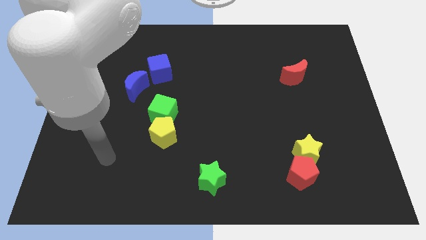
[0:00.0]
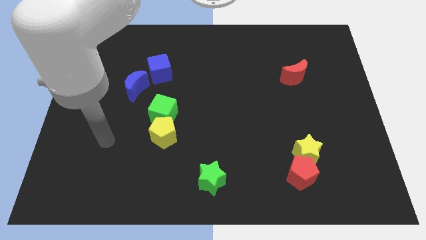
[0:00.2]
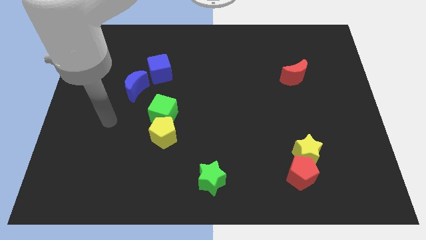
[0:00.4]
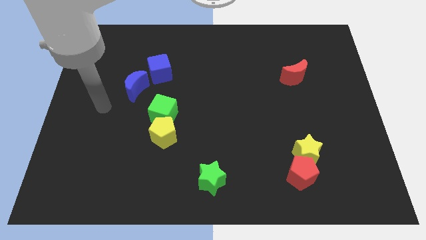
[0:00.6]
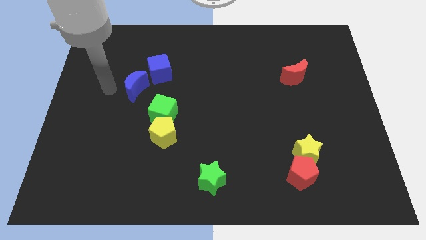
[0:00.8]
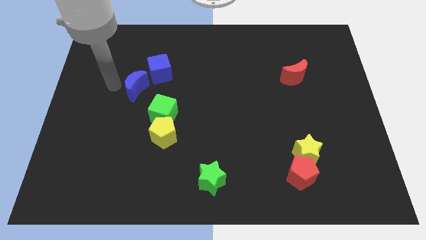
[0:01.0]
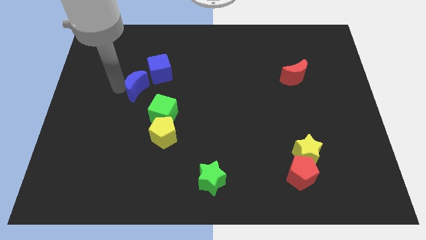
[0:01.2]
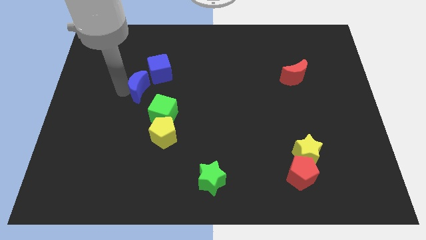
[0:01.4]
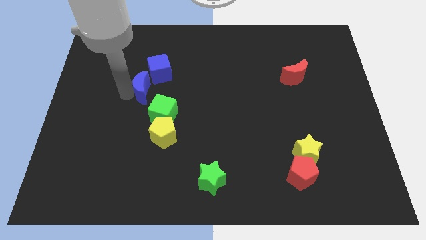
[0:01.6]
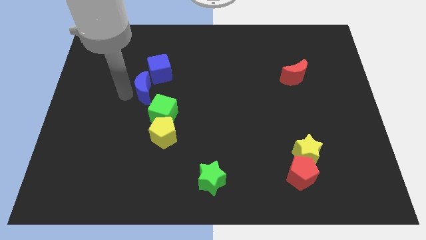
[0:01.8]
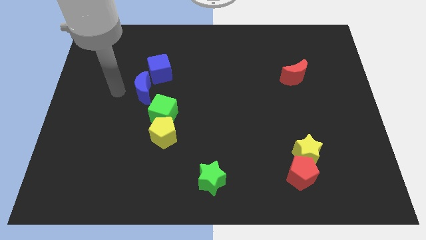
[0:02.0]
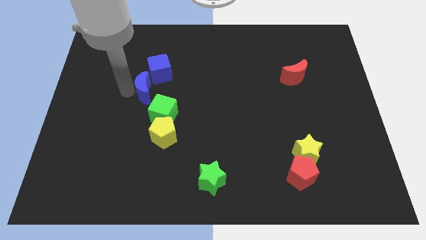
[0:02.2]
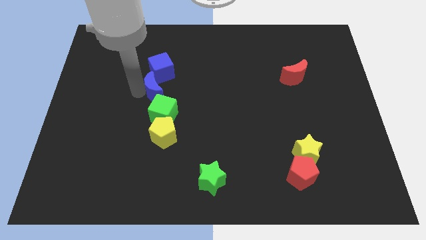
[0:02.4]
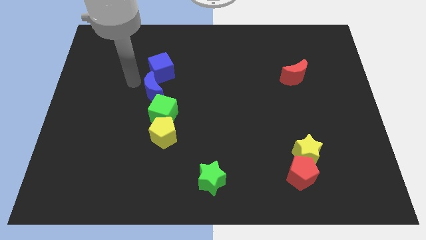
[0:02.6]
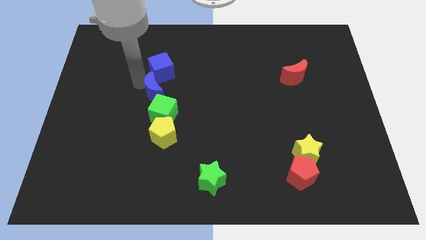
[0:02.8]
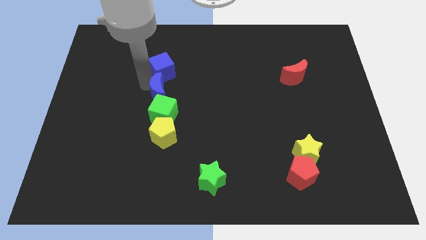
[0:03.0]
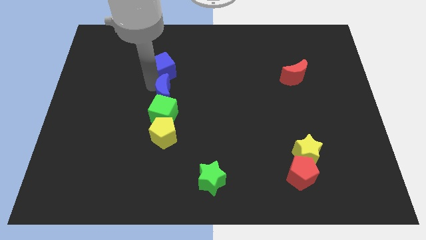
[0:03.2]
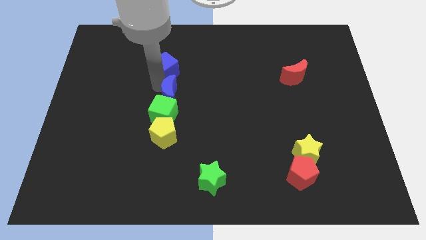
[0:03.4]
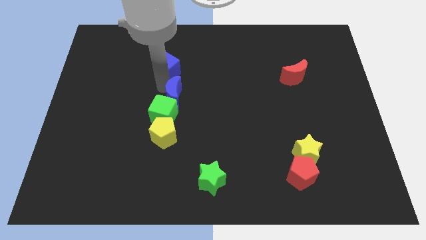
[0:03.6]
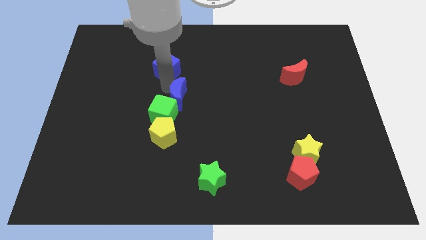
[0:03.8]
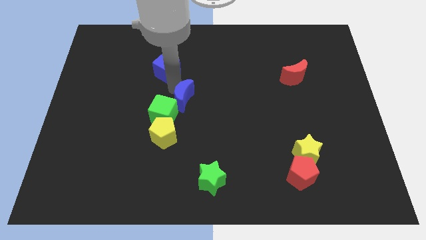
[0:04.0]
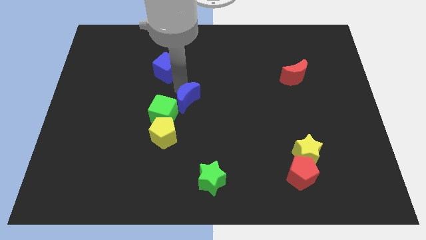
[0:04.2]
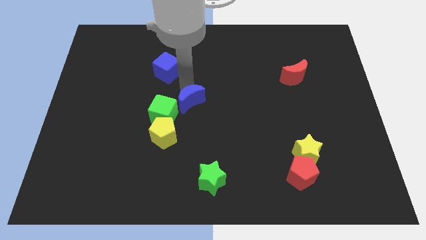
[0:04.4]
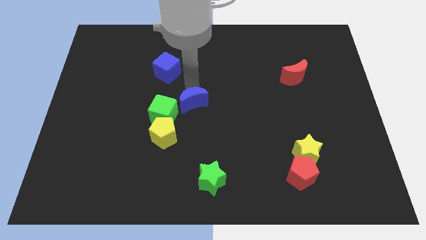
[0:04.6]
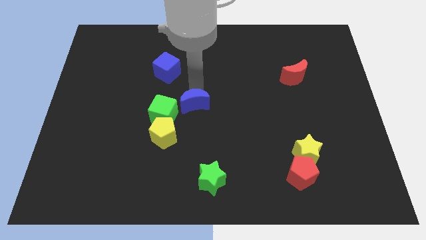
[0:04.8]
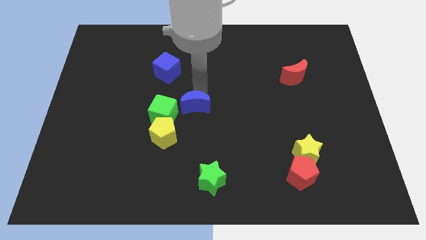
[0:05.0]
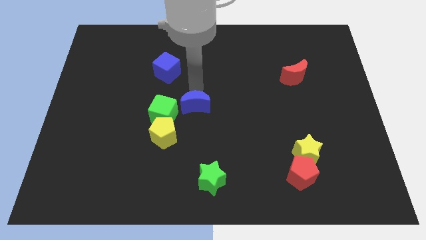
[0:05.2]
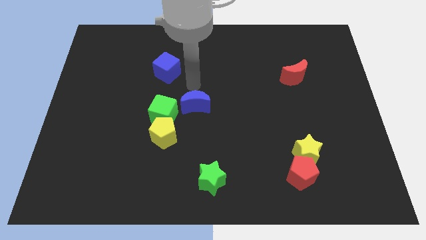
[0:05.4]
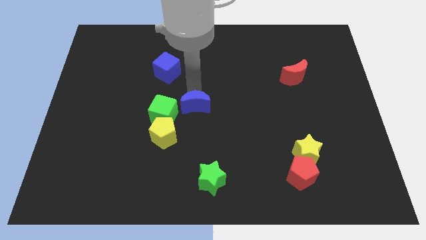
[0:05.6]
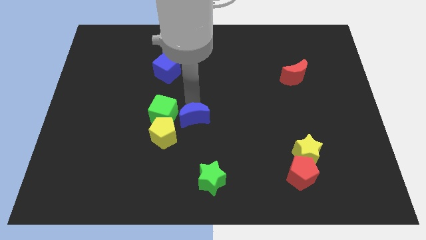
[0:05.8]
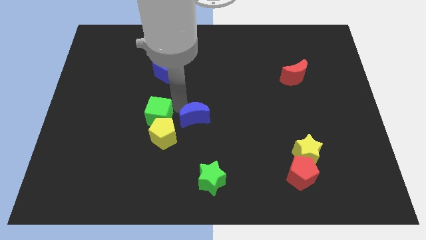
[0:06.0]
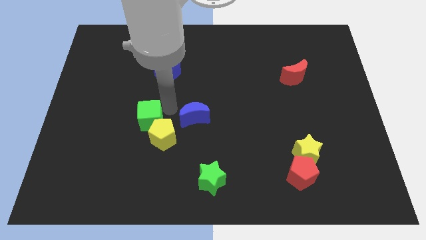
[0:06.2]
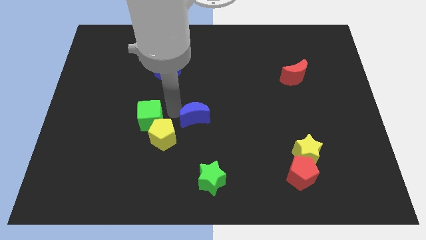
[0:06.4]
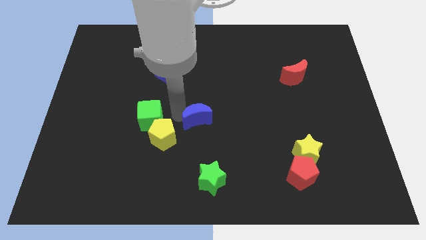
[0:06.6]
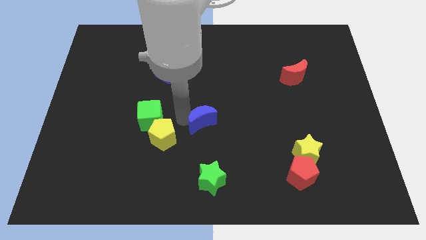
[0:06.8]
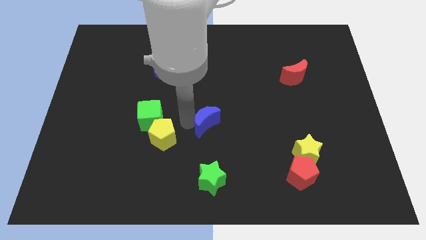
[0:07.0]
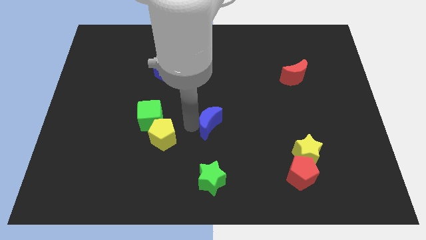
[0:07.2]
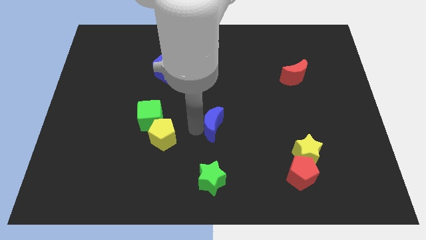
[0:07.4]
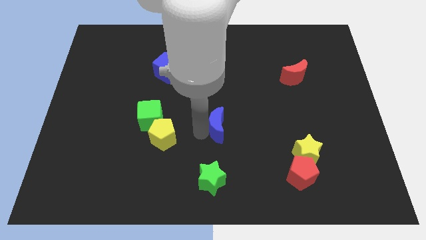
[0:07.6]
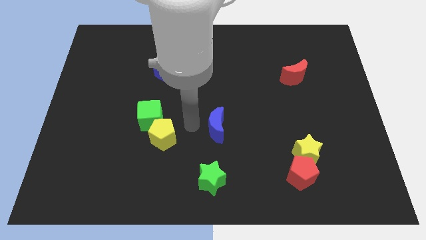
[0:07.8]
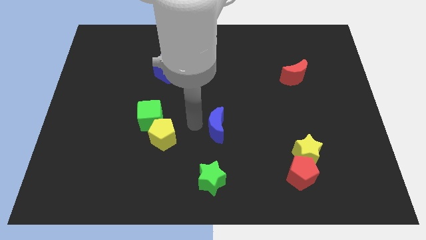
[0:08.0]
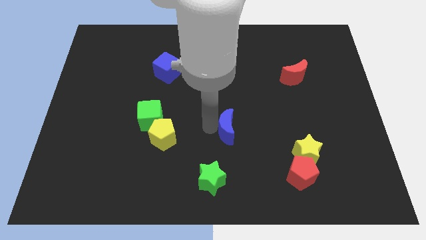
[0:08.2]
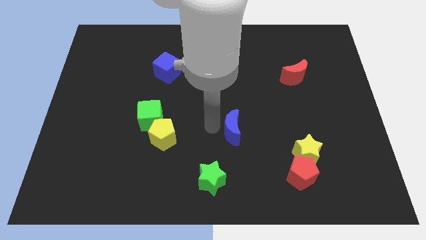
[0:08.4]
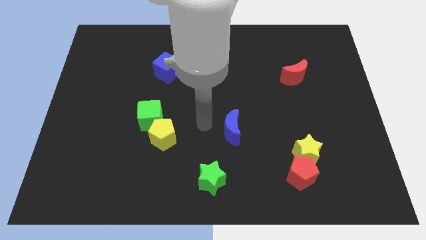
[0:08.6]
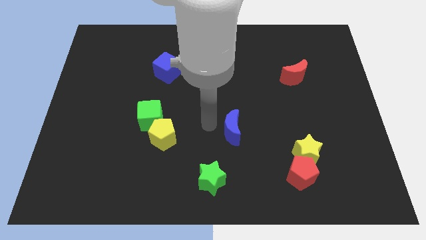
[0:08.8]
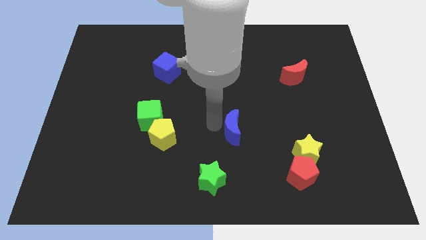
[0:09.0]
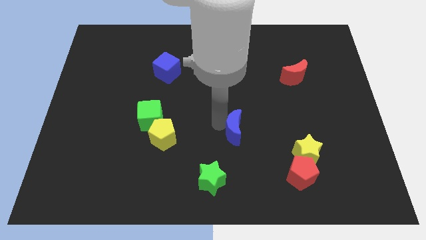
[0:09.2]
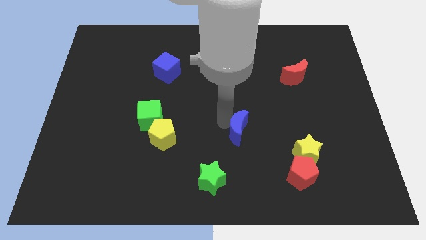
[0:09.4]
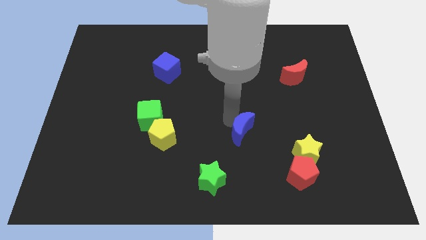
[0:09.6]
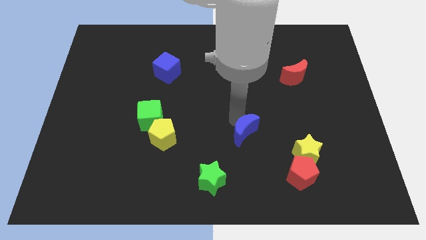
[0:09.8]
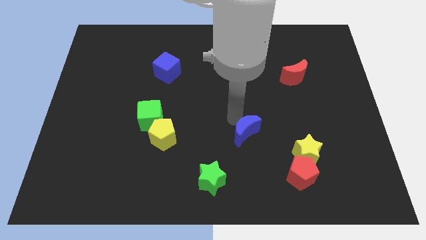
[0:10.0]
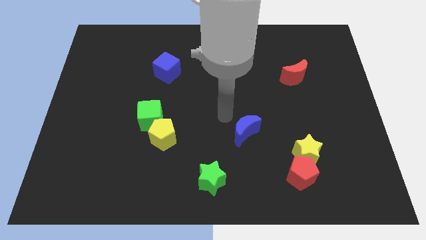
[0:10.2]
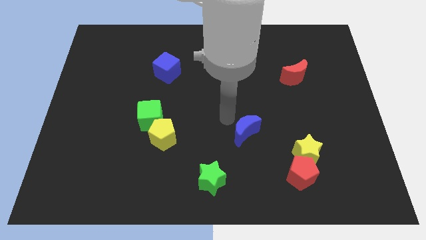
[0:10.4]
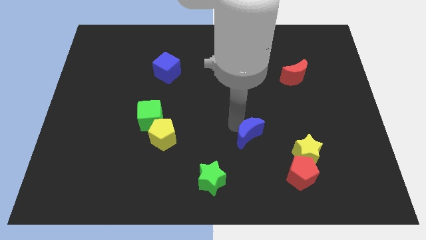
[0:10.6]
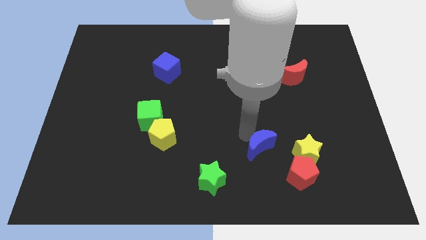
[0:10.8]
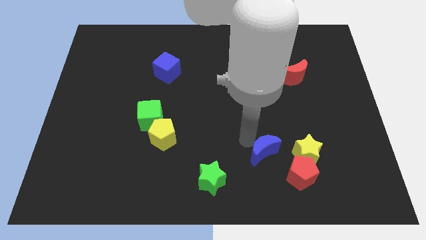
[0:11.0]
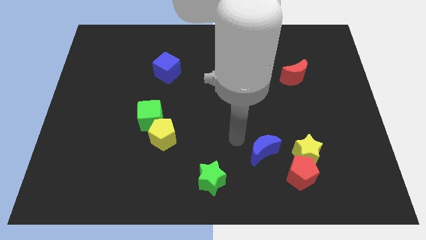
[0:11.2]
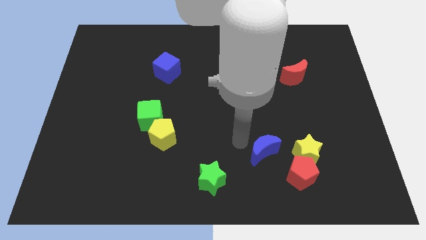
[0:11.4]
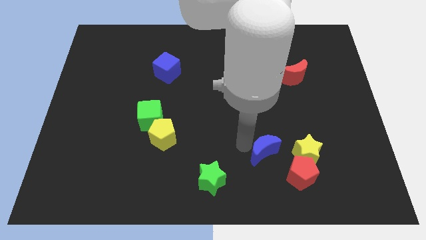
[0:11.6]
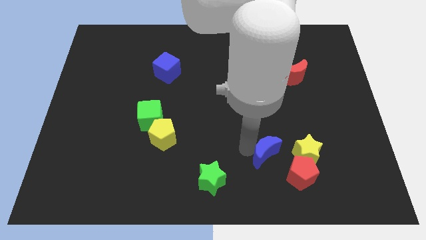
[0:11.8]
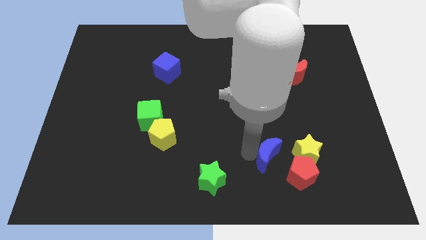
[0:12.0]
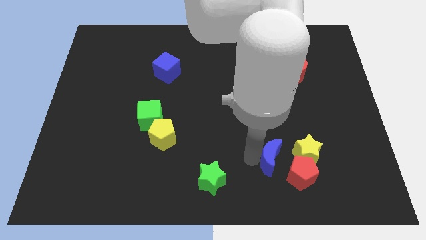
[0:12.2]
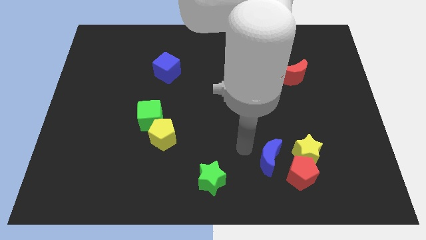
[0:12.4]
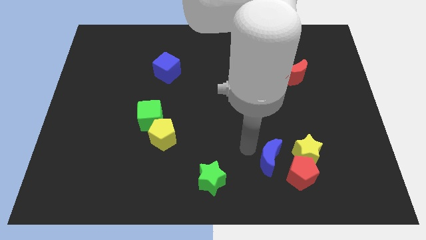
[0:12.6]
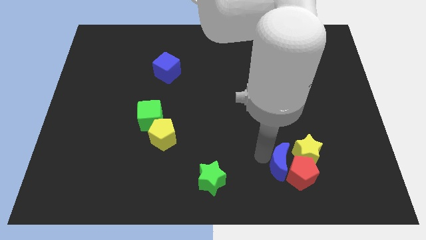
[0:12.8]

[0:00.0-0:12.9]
put the blue moon close to the red pentagon

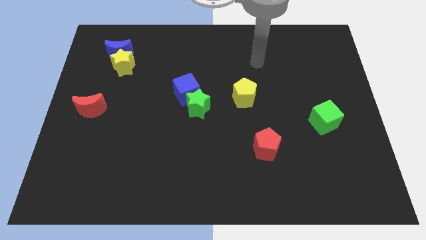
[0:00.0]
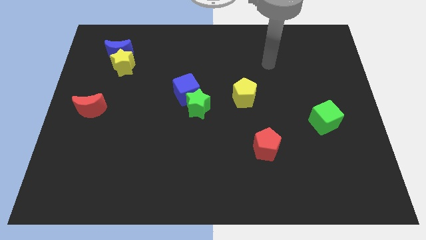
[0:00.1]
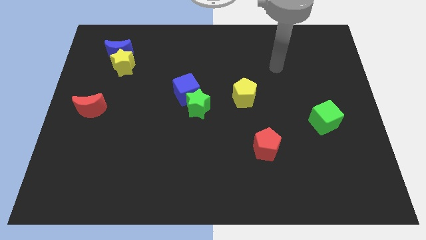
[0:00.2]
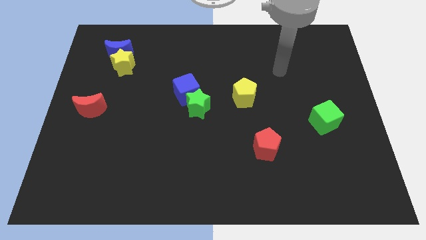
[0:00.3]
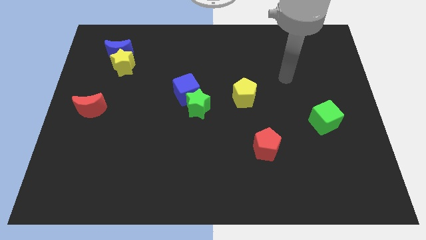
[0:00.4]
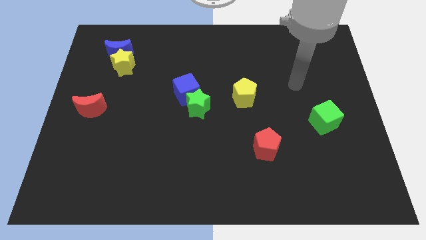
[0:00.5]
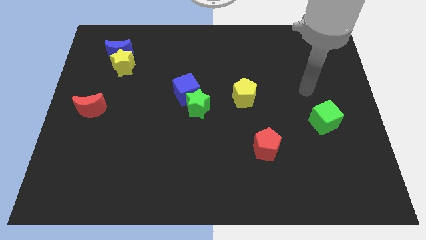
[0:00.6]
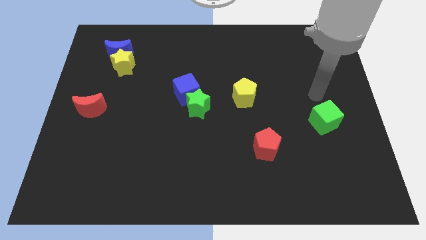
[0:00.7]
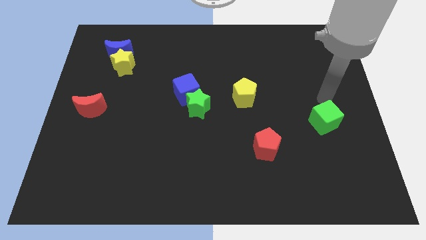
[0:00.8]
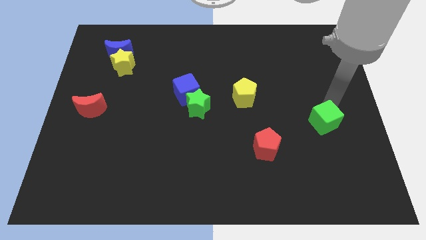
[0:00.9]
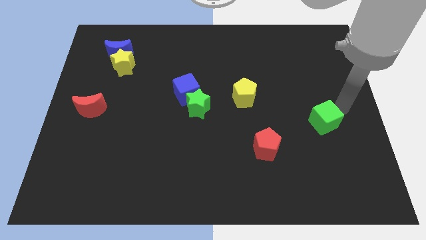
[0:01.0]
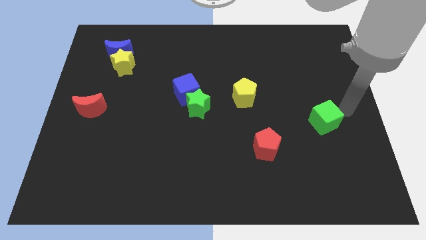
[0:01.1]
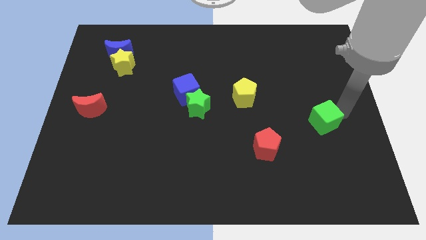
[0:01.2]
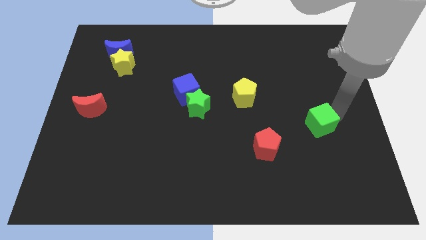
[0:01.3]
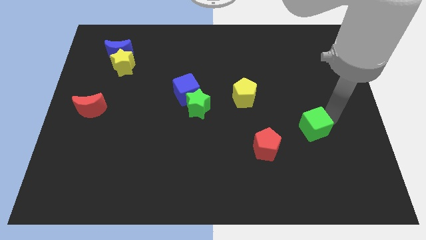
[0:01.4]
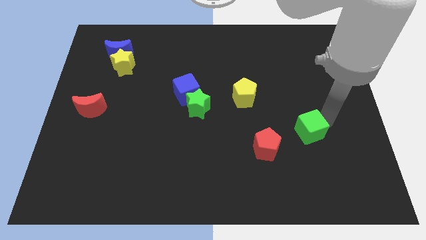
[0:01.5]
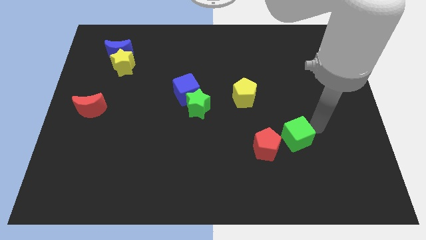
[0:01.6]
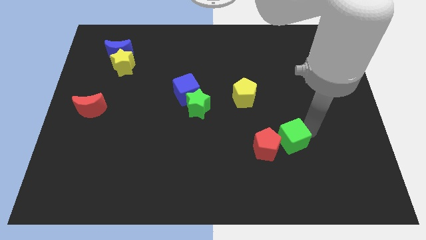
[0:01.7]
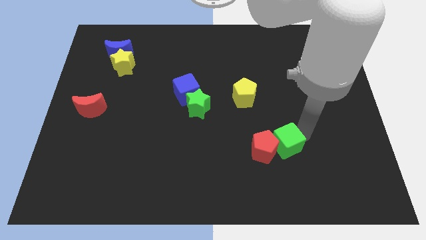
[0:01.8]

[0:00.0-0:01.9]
slide the green cube next to the red pentagon
